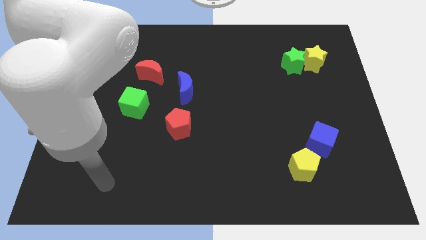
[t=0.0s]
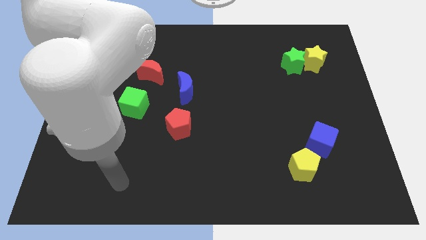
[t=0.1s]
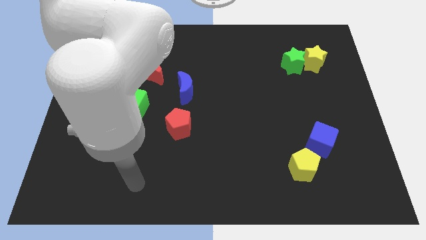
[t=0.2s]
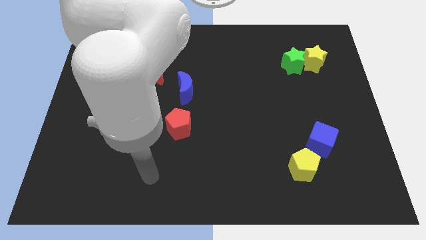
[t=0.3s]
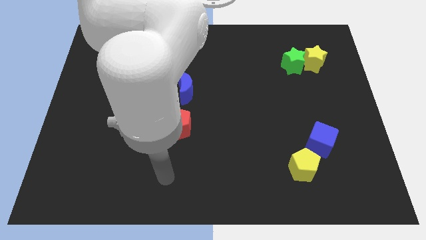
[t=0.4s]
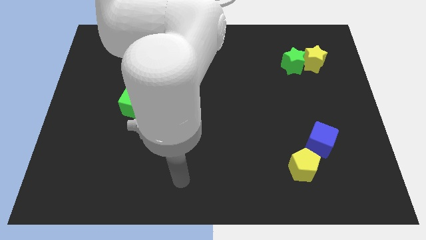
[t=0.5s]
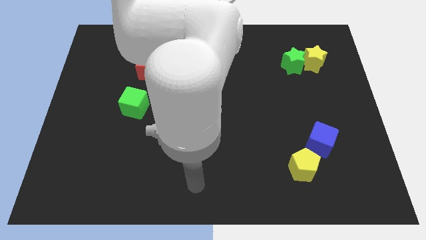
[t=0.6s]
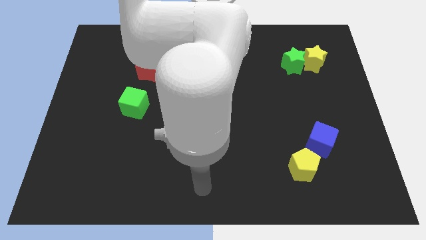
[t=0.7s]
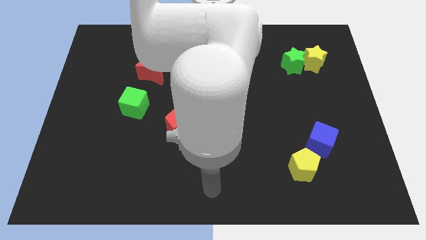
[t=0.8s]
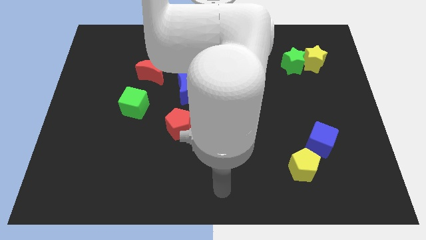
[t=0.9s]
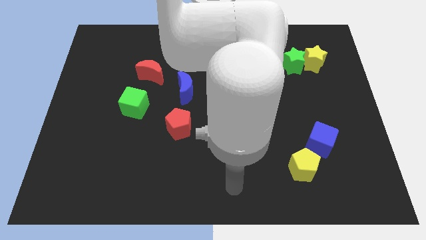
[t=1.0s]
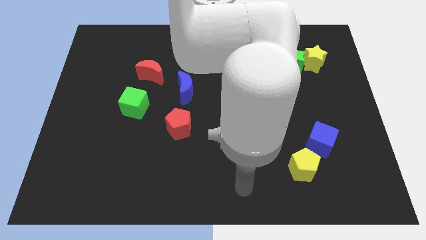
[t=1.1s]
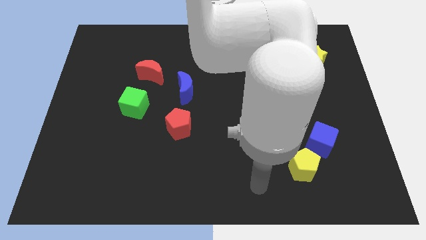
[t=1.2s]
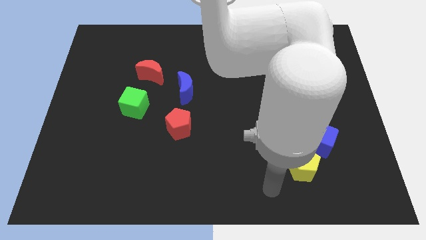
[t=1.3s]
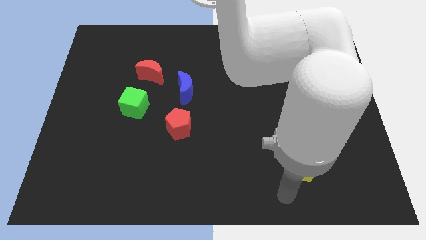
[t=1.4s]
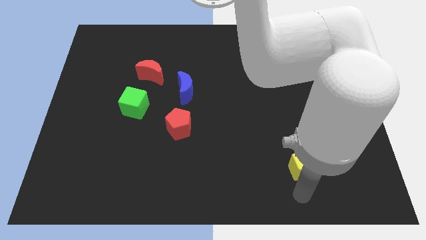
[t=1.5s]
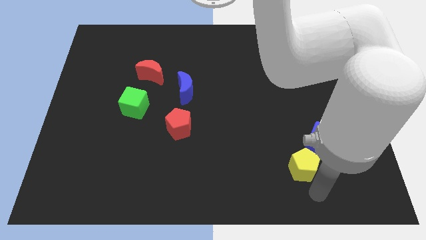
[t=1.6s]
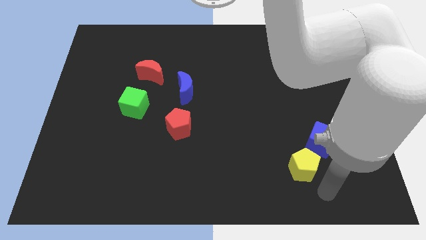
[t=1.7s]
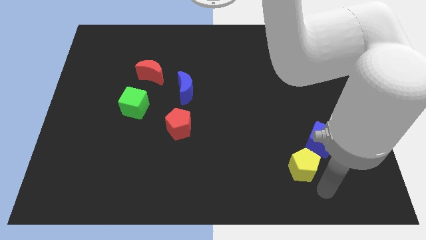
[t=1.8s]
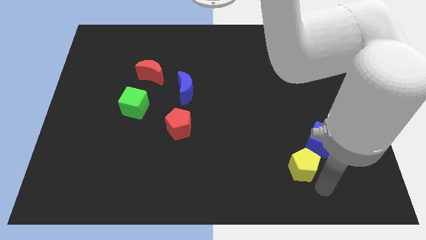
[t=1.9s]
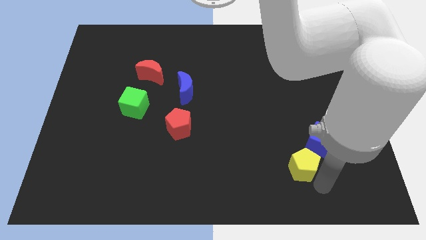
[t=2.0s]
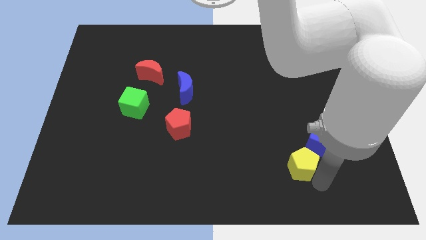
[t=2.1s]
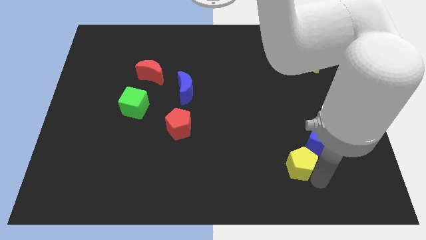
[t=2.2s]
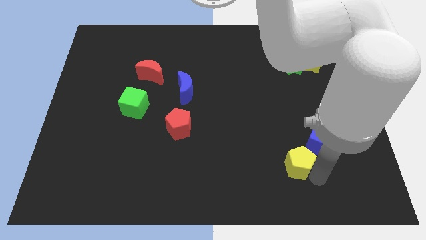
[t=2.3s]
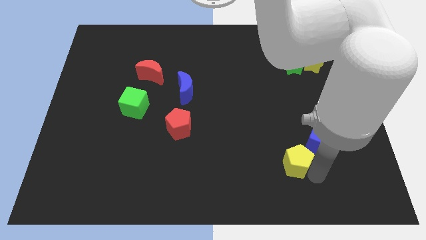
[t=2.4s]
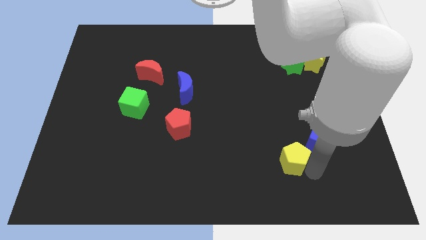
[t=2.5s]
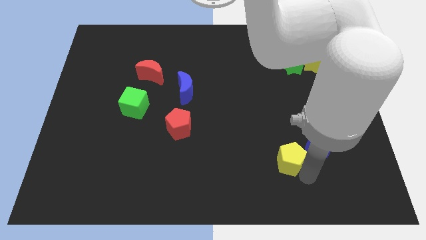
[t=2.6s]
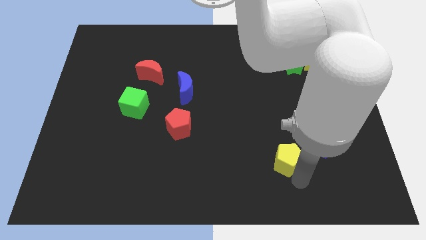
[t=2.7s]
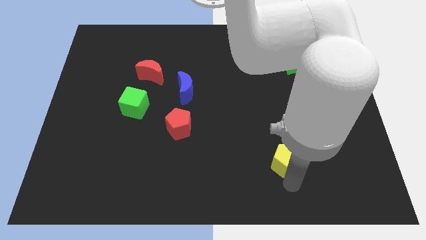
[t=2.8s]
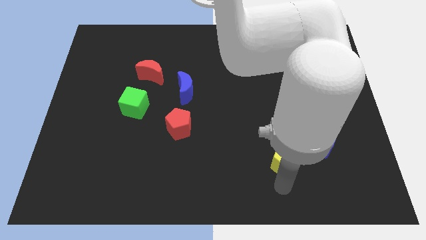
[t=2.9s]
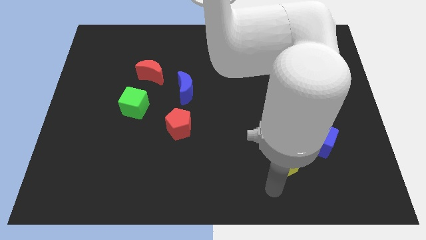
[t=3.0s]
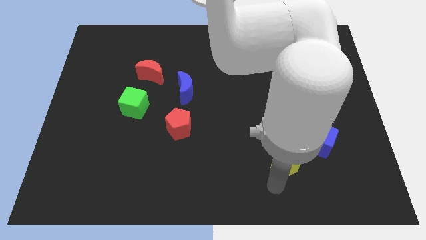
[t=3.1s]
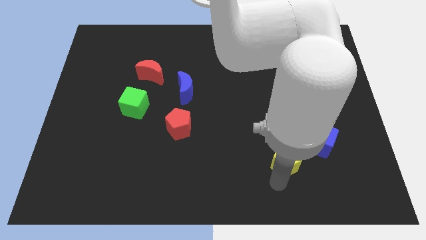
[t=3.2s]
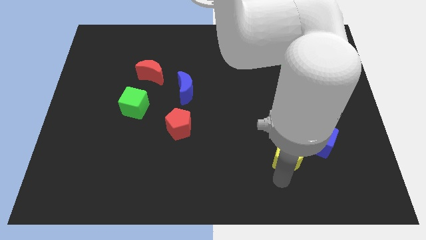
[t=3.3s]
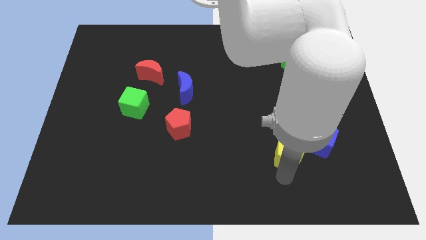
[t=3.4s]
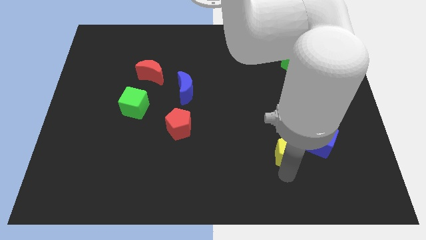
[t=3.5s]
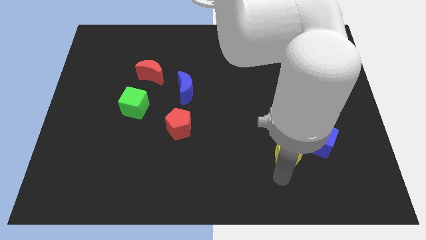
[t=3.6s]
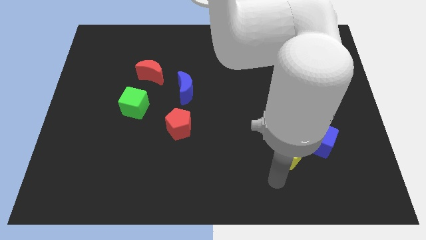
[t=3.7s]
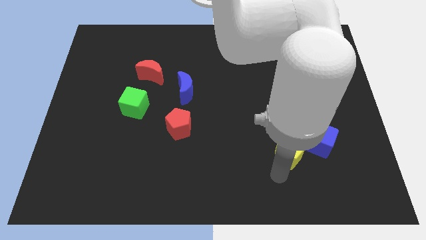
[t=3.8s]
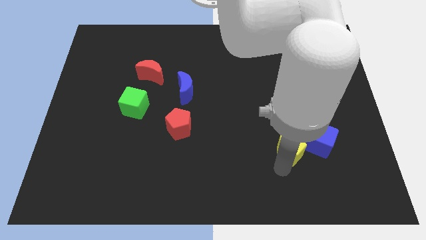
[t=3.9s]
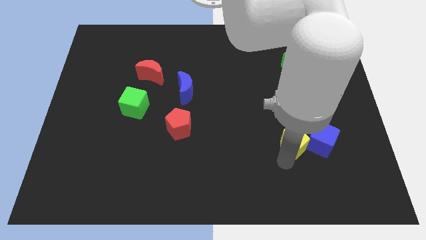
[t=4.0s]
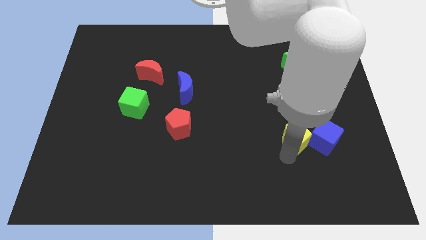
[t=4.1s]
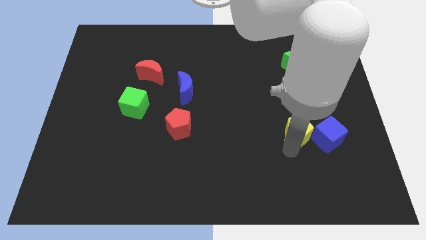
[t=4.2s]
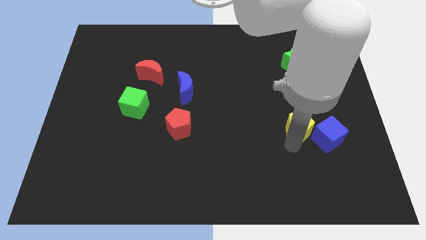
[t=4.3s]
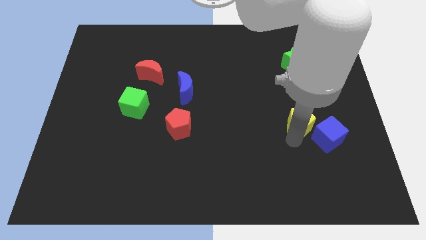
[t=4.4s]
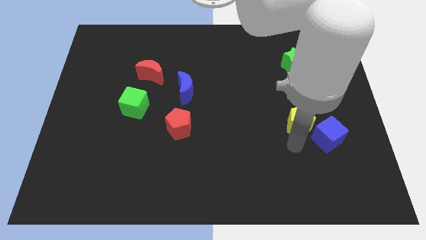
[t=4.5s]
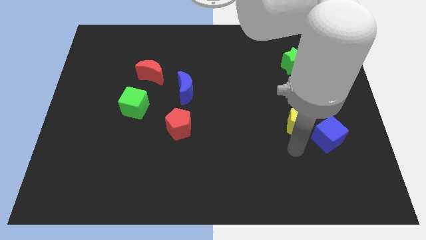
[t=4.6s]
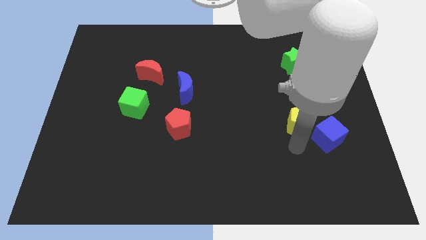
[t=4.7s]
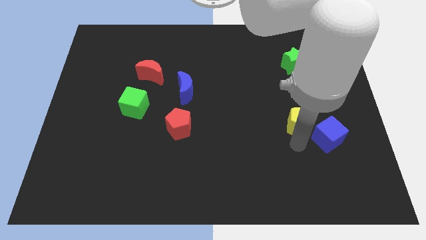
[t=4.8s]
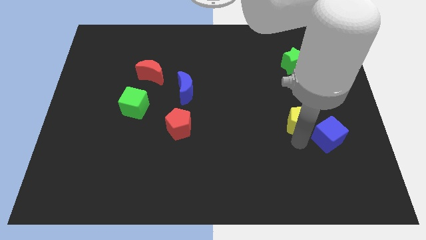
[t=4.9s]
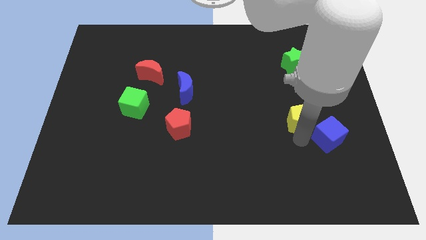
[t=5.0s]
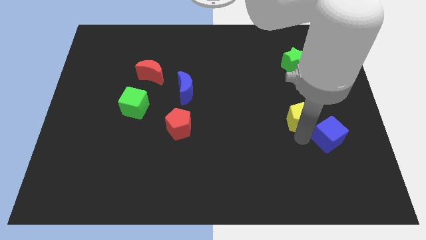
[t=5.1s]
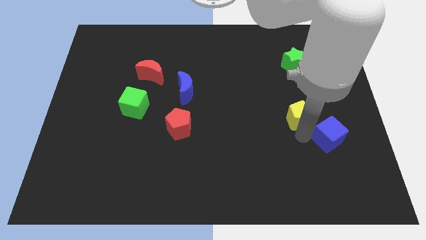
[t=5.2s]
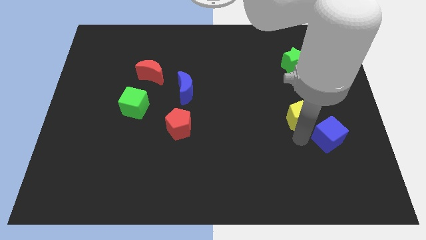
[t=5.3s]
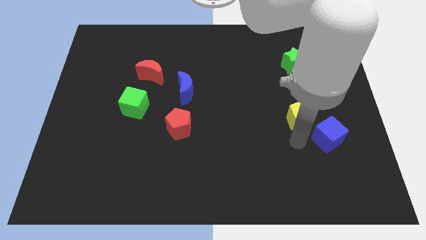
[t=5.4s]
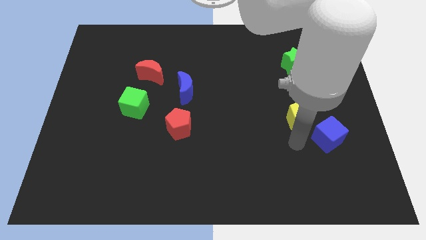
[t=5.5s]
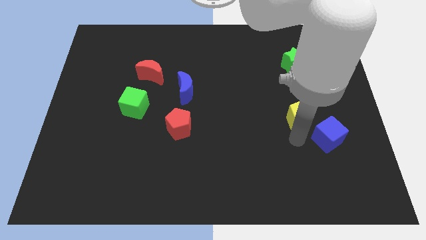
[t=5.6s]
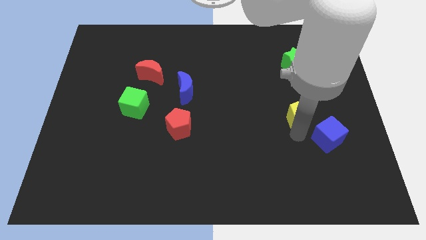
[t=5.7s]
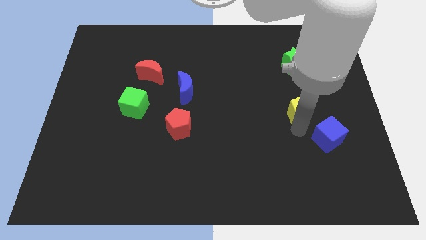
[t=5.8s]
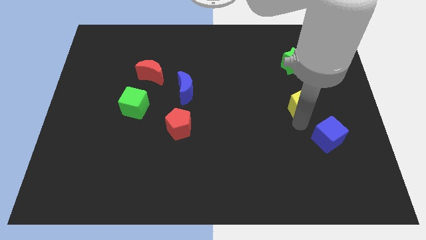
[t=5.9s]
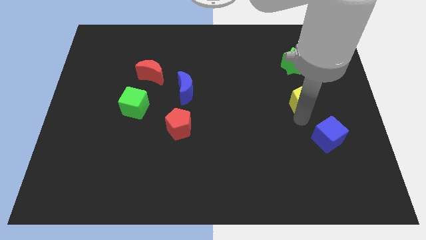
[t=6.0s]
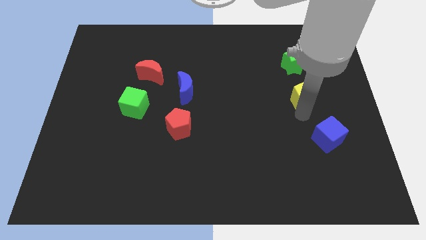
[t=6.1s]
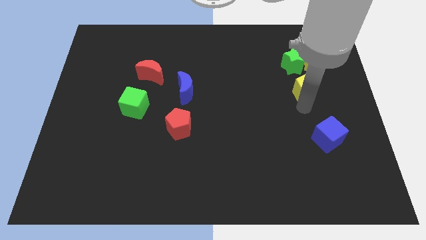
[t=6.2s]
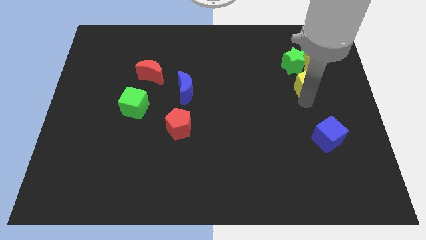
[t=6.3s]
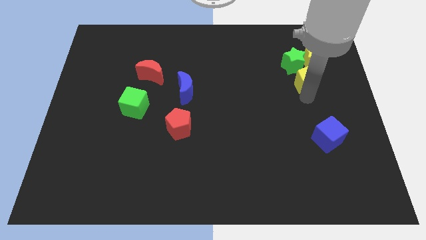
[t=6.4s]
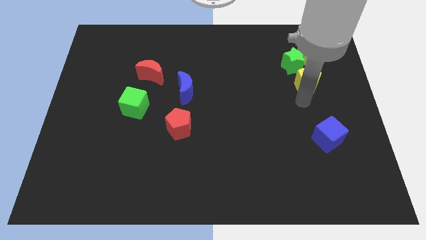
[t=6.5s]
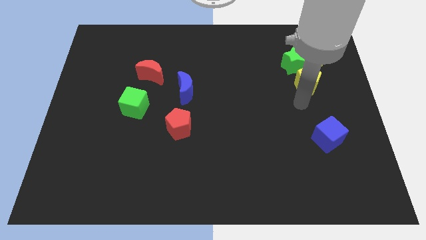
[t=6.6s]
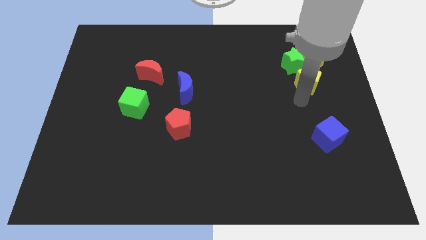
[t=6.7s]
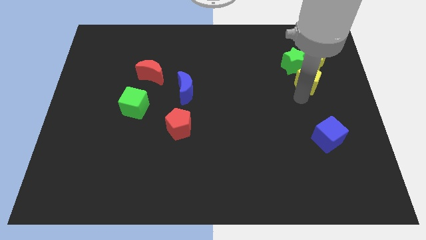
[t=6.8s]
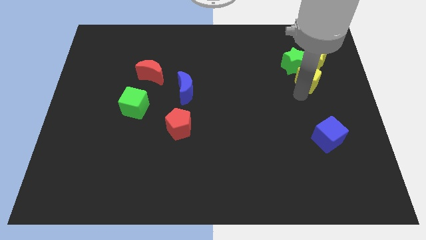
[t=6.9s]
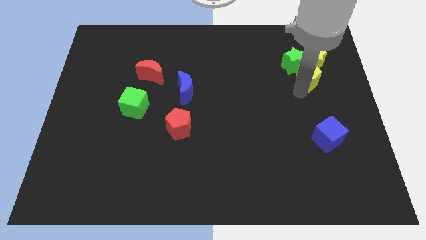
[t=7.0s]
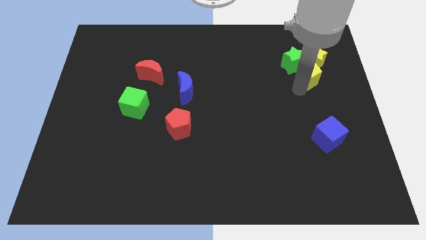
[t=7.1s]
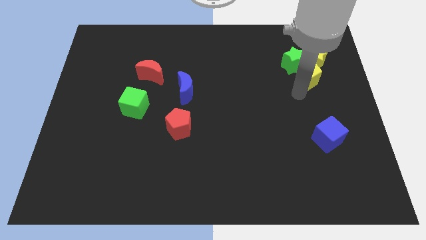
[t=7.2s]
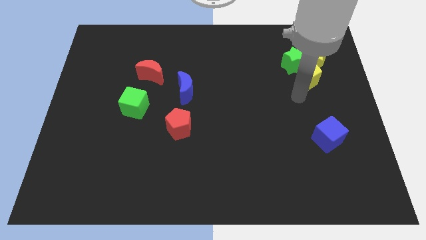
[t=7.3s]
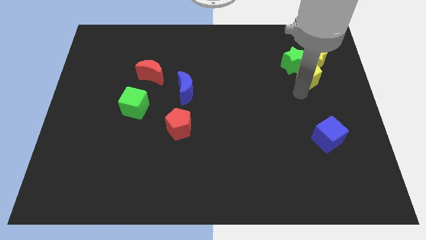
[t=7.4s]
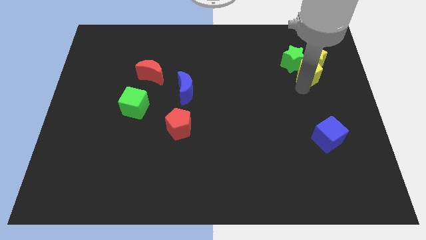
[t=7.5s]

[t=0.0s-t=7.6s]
put the yellow pentagon to the yellow star
